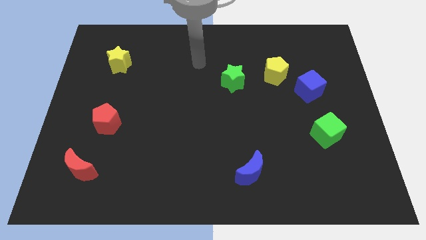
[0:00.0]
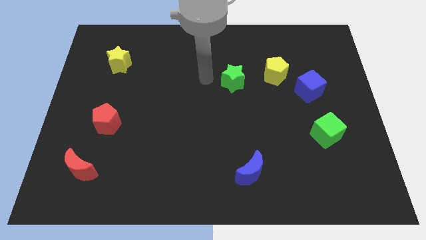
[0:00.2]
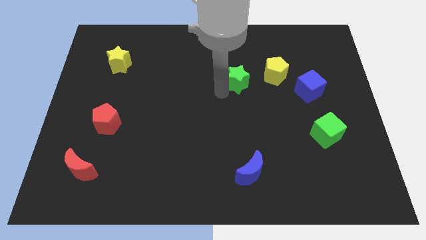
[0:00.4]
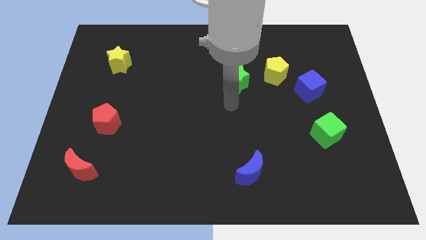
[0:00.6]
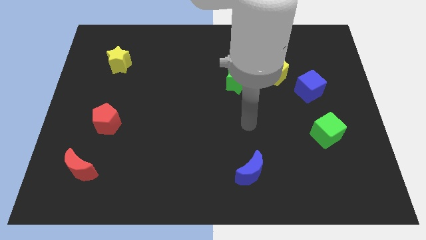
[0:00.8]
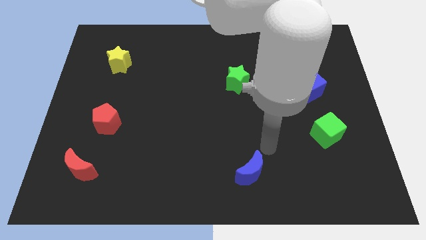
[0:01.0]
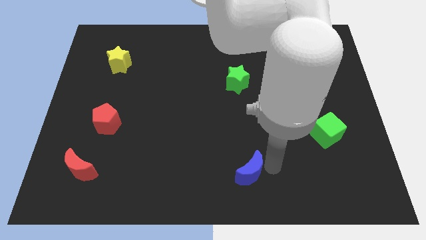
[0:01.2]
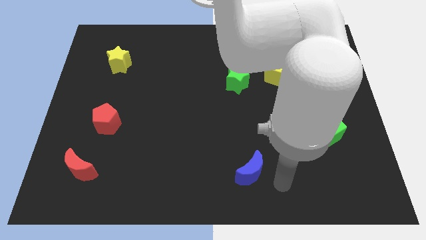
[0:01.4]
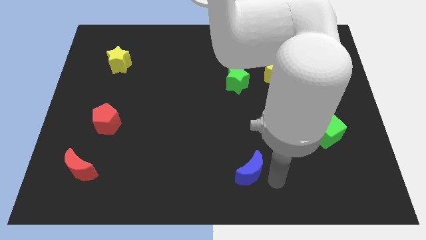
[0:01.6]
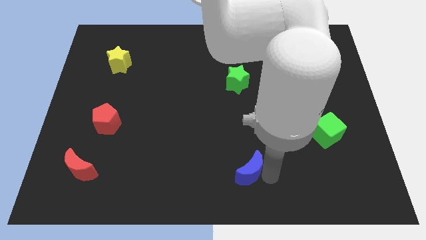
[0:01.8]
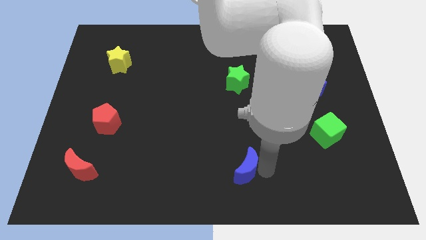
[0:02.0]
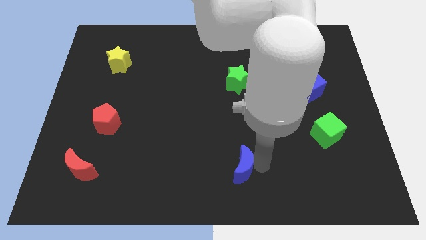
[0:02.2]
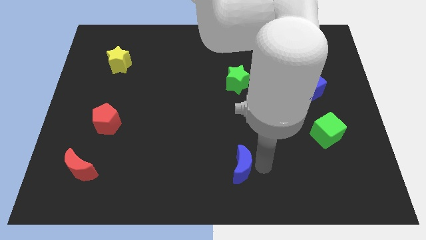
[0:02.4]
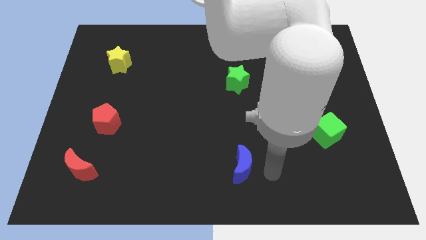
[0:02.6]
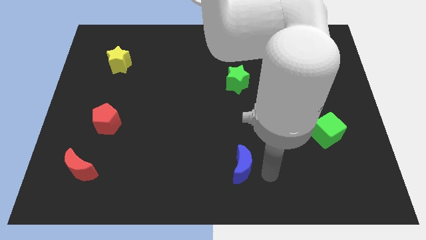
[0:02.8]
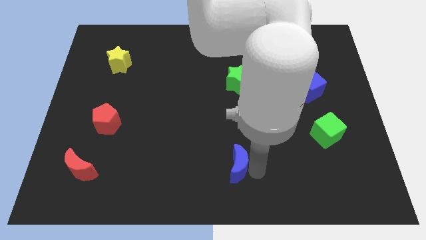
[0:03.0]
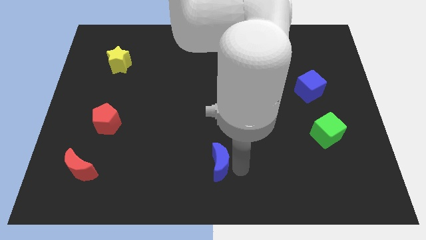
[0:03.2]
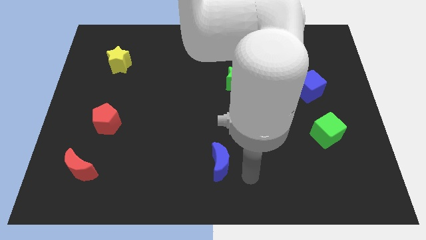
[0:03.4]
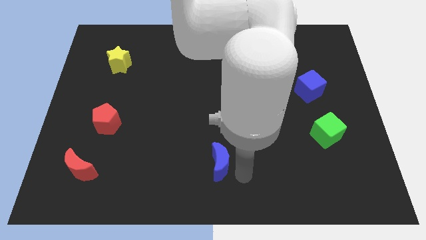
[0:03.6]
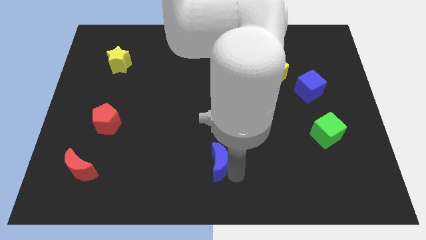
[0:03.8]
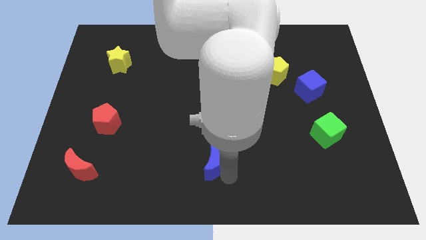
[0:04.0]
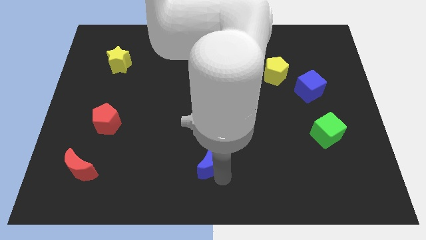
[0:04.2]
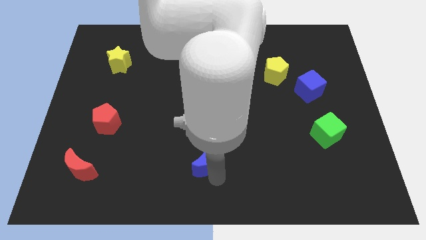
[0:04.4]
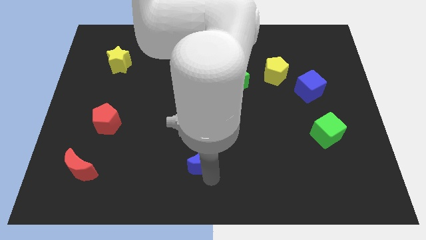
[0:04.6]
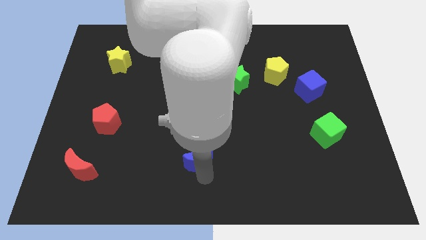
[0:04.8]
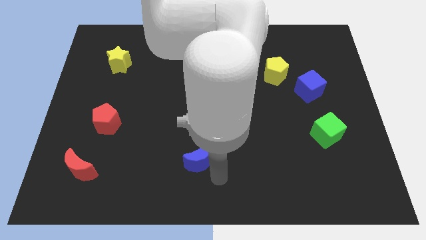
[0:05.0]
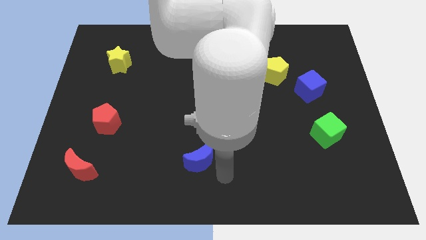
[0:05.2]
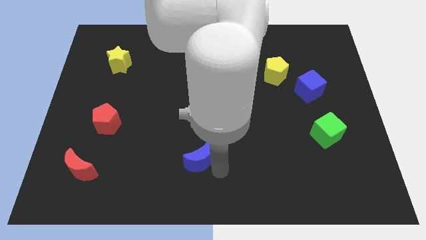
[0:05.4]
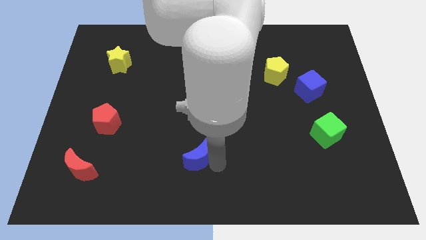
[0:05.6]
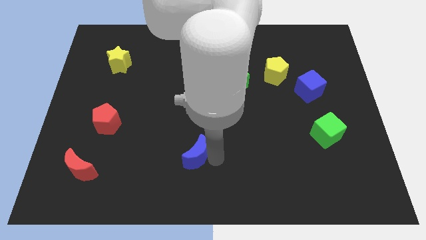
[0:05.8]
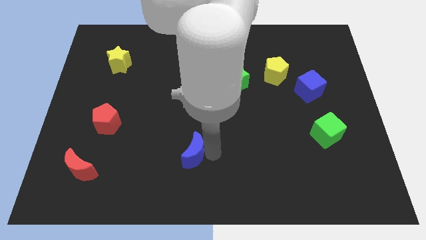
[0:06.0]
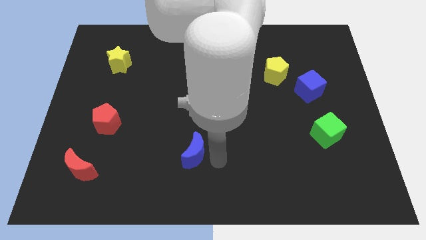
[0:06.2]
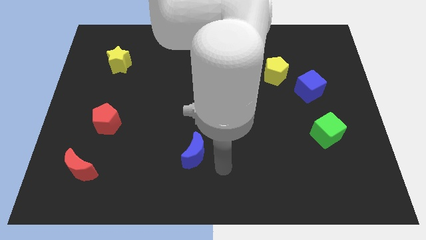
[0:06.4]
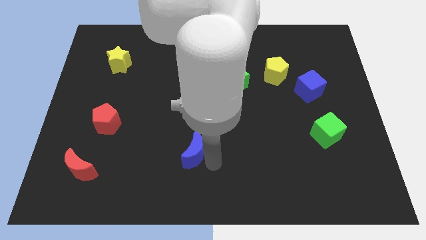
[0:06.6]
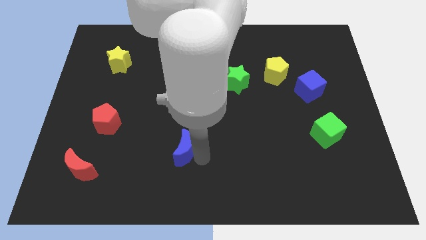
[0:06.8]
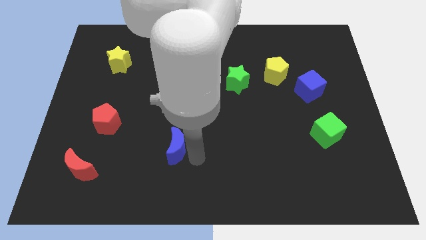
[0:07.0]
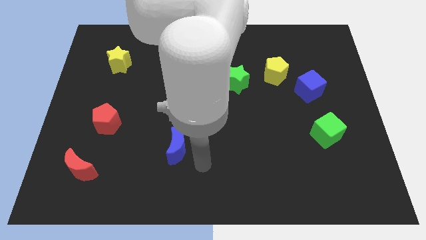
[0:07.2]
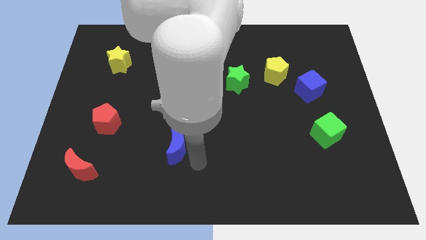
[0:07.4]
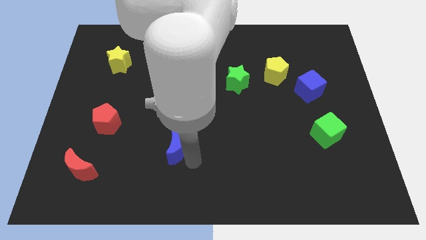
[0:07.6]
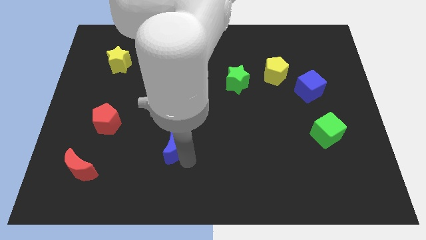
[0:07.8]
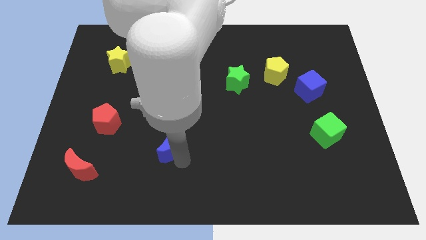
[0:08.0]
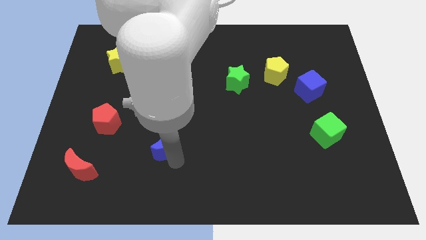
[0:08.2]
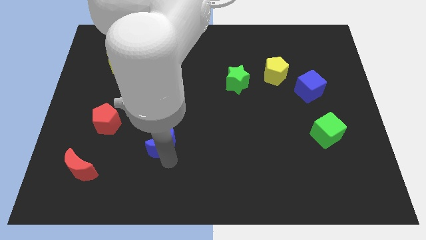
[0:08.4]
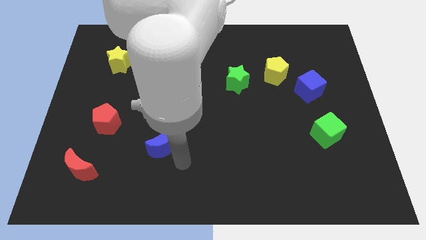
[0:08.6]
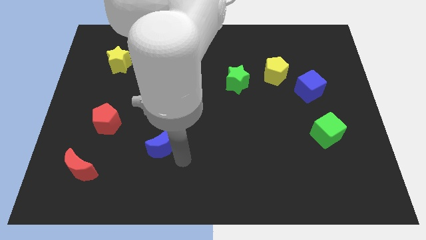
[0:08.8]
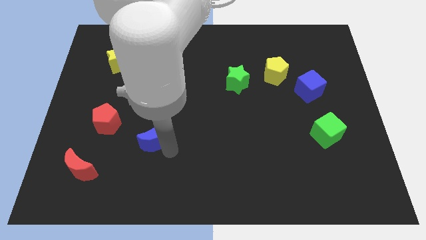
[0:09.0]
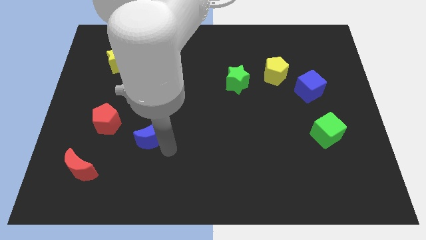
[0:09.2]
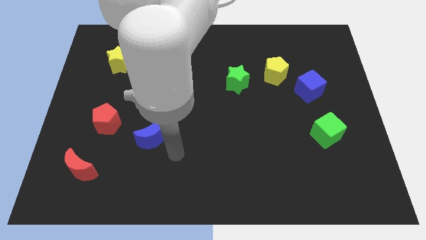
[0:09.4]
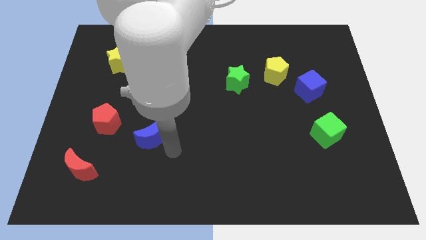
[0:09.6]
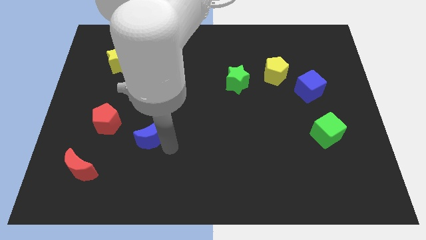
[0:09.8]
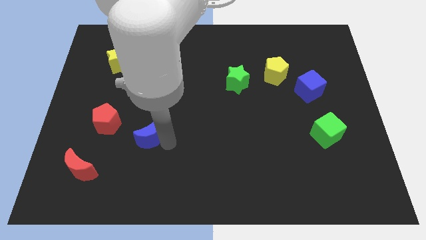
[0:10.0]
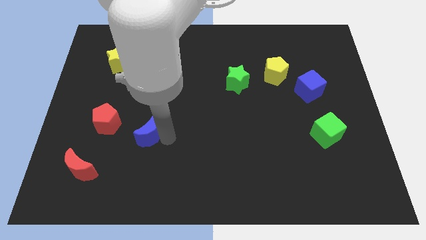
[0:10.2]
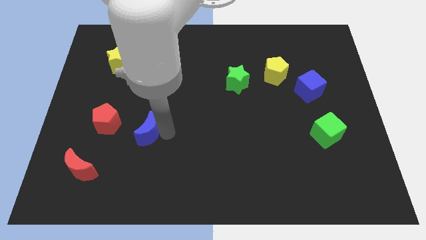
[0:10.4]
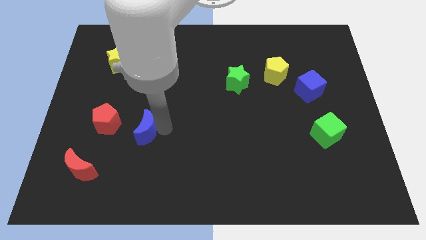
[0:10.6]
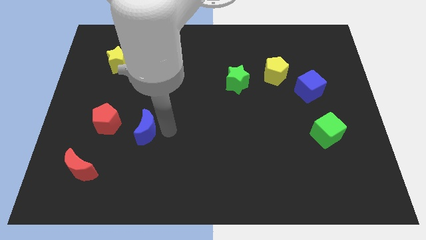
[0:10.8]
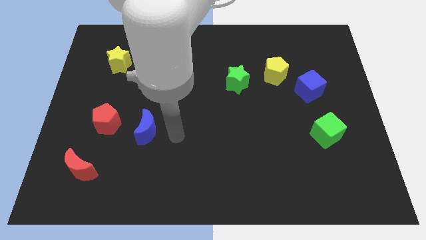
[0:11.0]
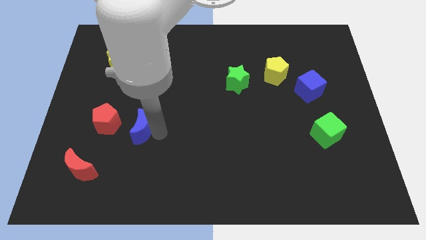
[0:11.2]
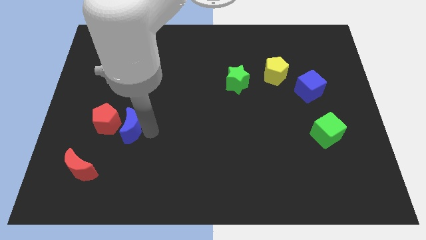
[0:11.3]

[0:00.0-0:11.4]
put the blue moon next to the red pentagon

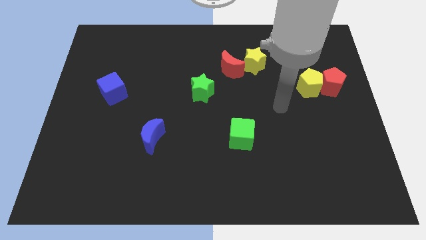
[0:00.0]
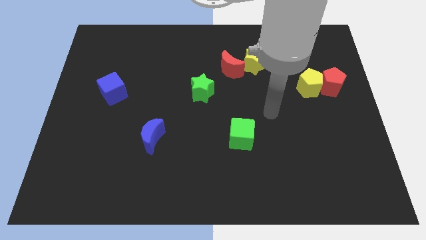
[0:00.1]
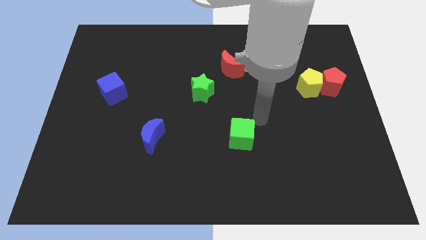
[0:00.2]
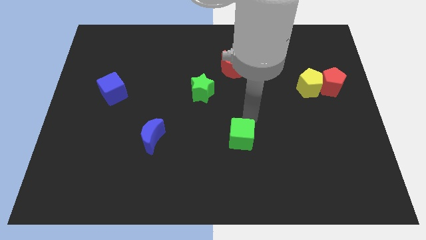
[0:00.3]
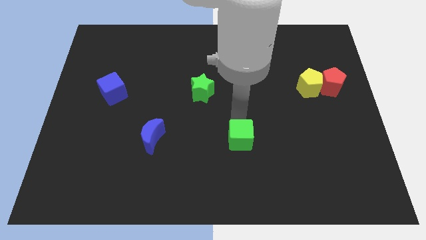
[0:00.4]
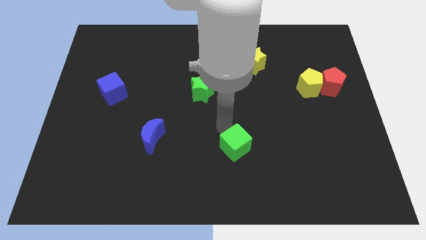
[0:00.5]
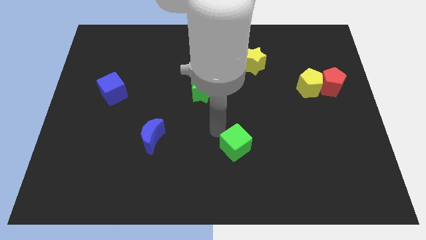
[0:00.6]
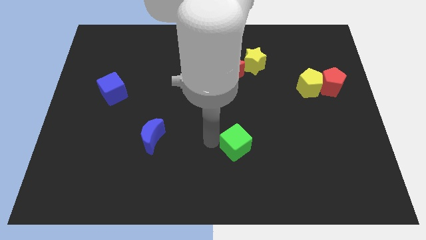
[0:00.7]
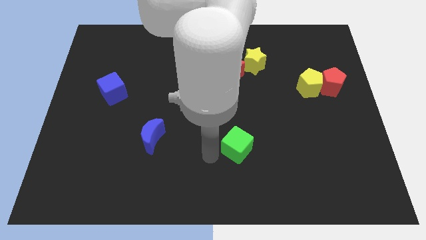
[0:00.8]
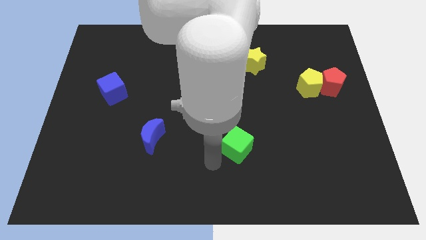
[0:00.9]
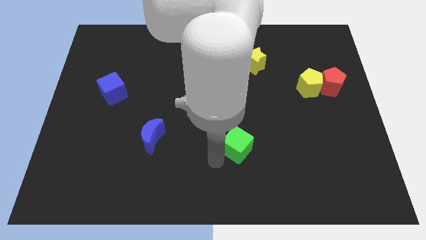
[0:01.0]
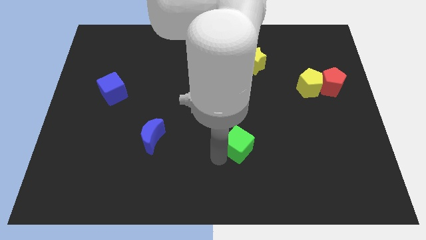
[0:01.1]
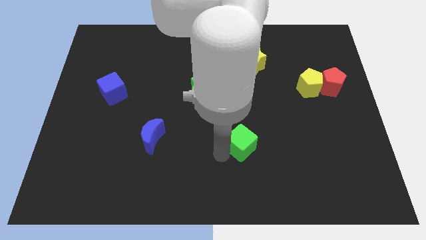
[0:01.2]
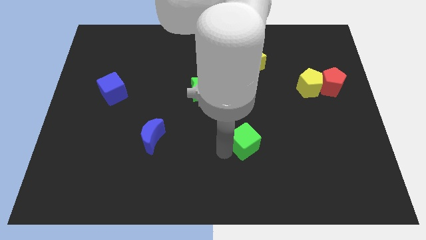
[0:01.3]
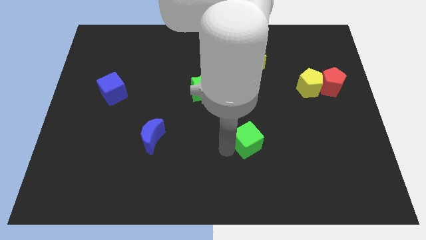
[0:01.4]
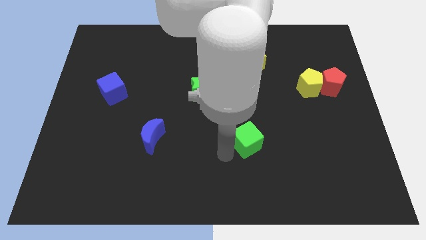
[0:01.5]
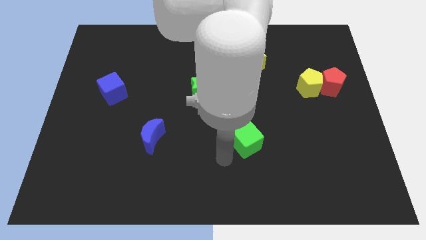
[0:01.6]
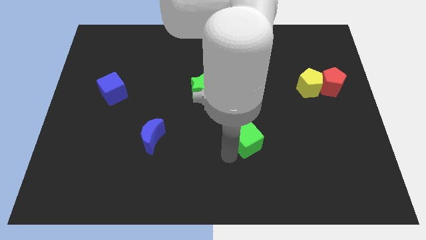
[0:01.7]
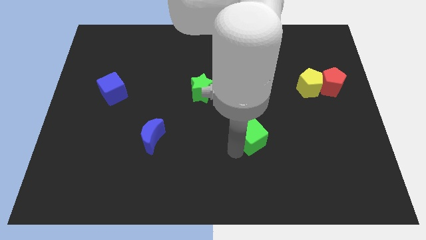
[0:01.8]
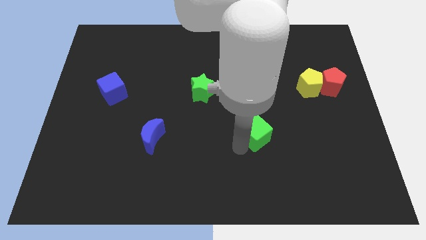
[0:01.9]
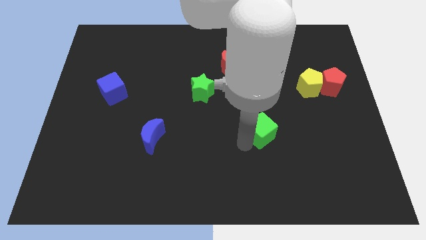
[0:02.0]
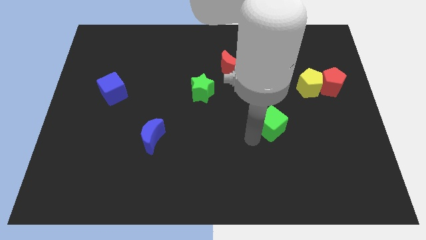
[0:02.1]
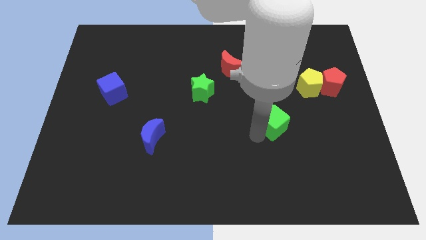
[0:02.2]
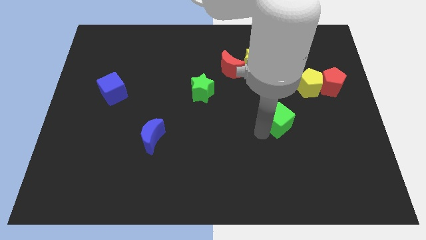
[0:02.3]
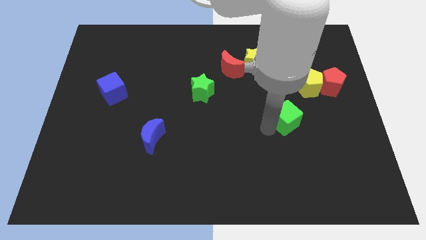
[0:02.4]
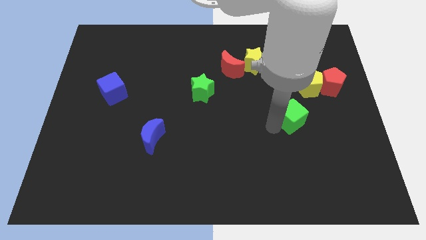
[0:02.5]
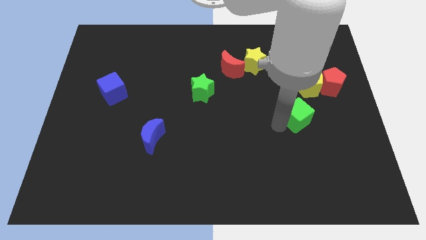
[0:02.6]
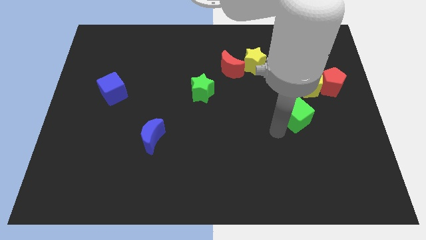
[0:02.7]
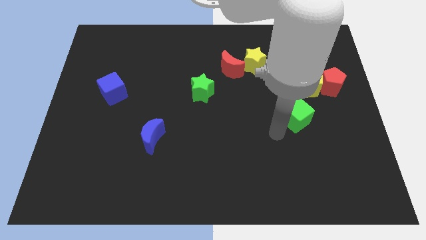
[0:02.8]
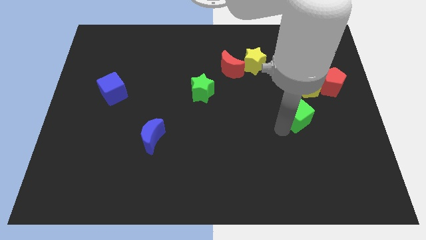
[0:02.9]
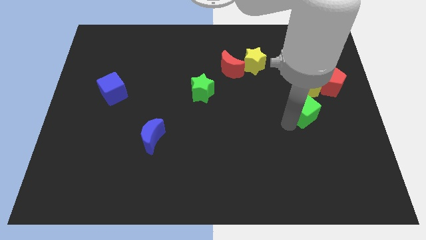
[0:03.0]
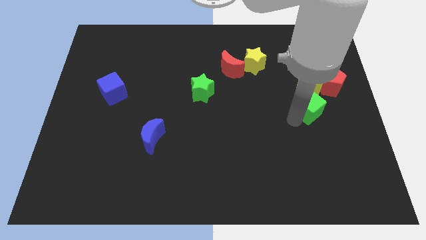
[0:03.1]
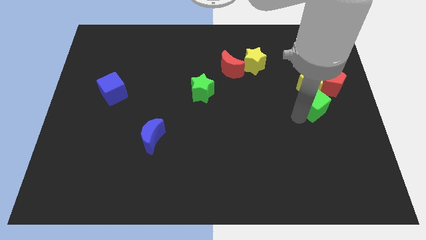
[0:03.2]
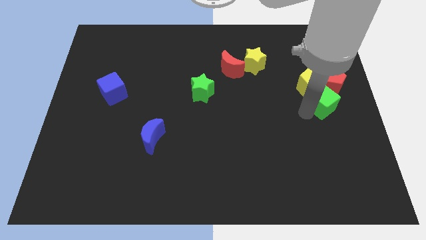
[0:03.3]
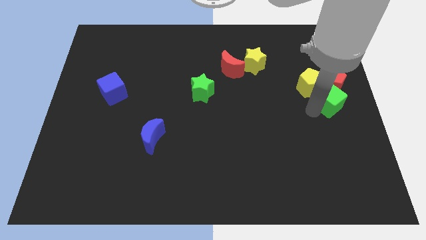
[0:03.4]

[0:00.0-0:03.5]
move the green cube close to the red pentagon
